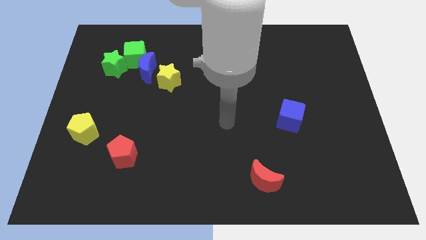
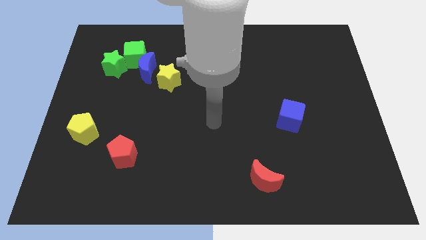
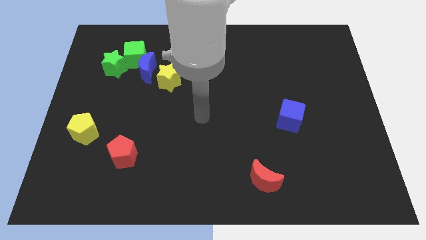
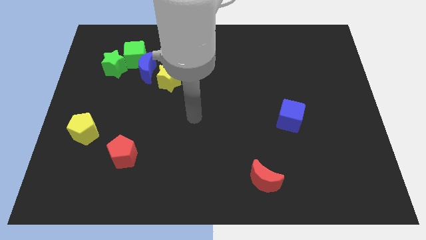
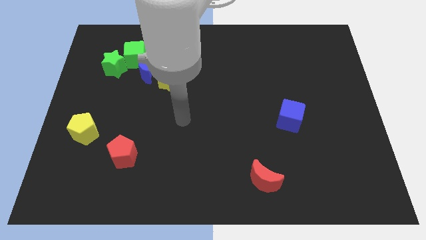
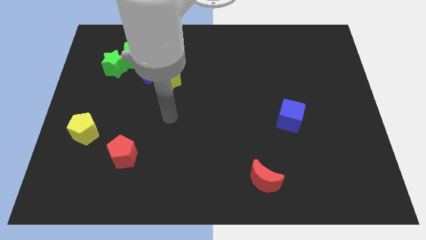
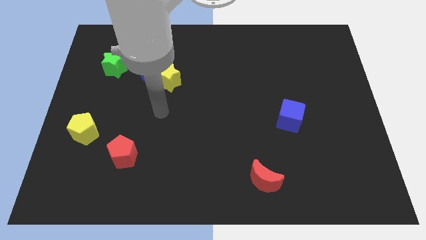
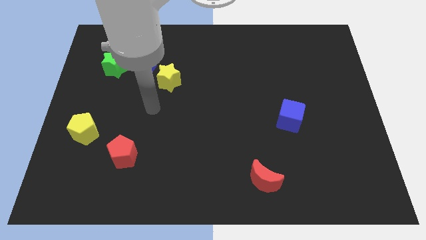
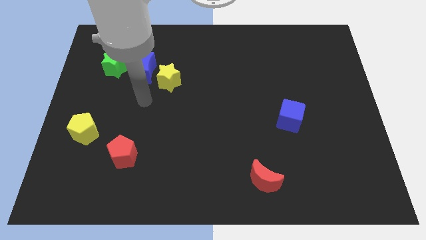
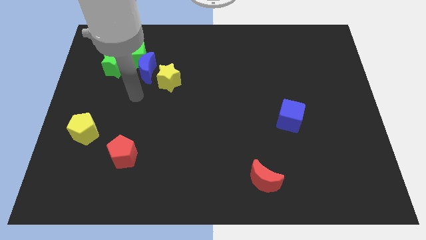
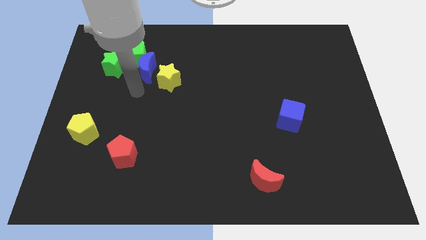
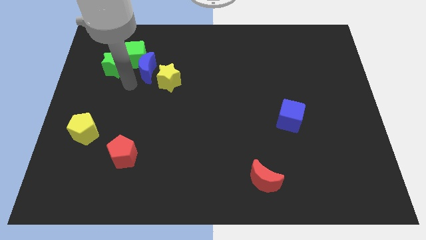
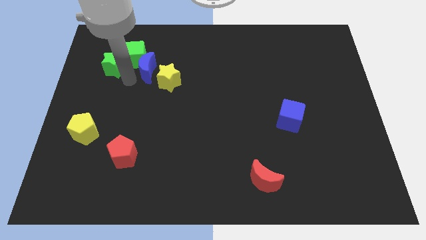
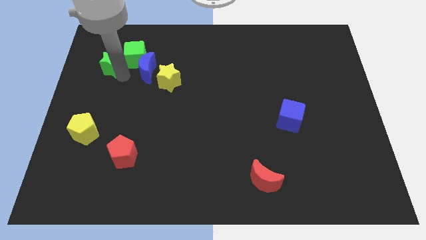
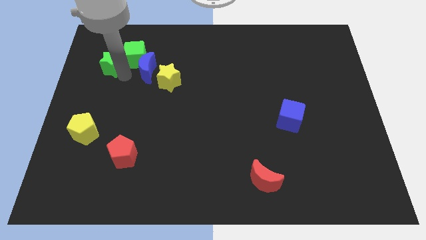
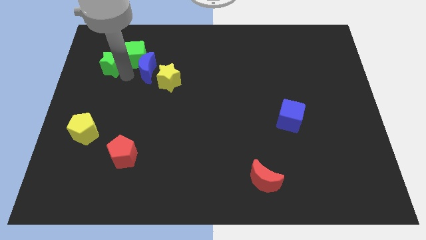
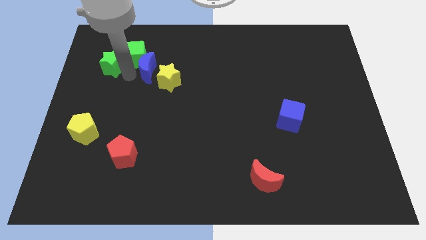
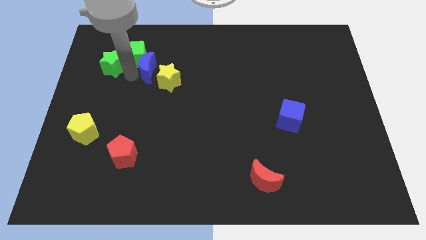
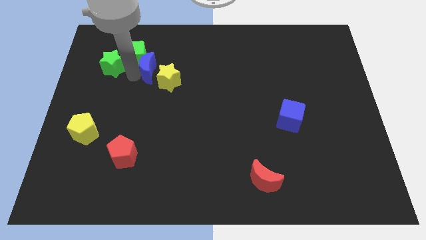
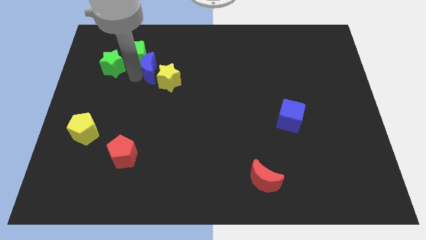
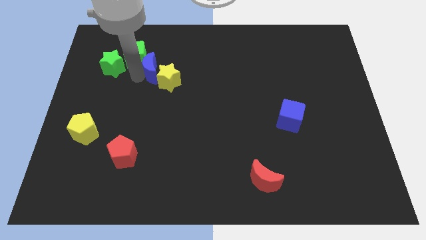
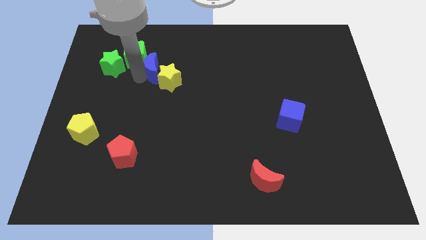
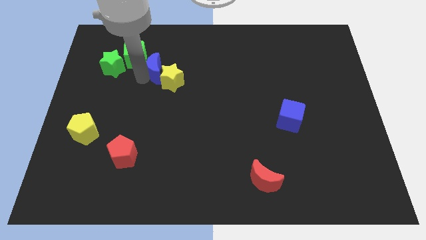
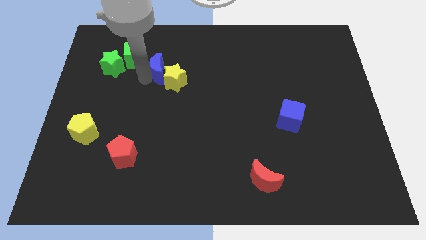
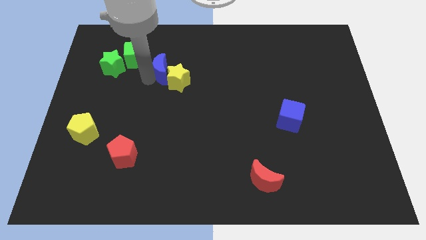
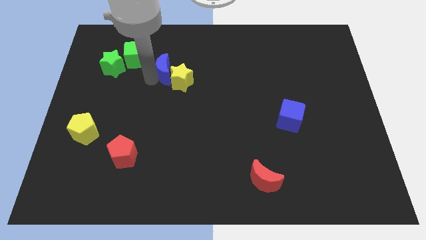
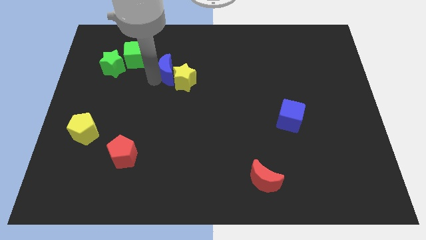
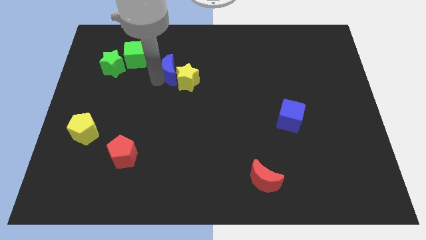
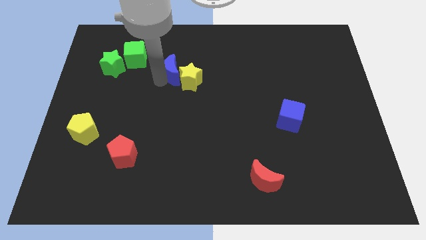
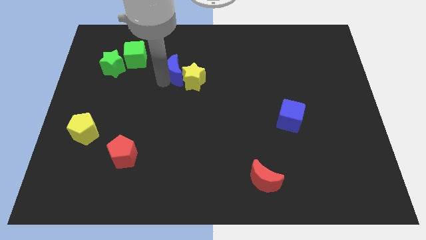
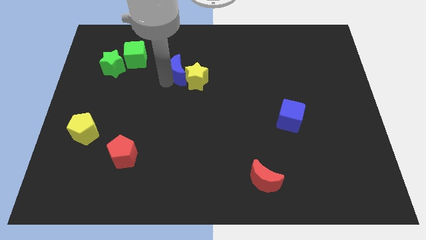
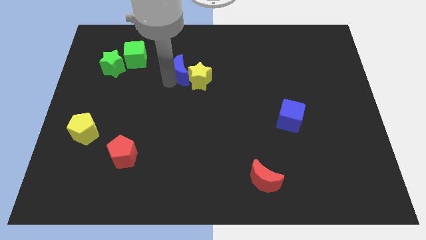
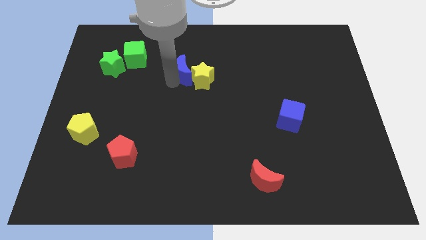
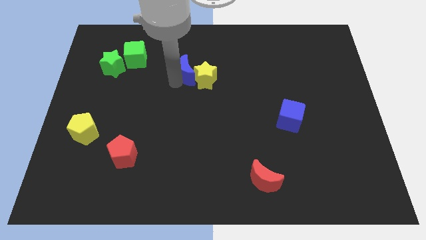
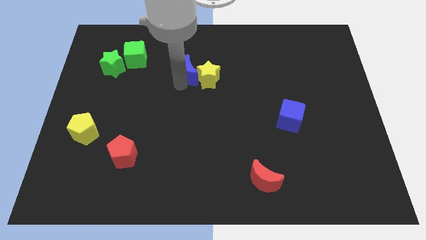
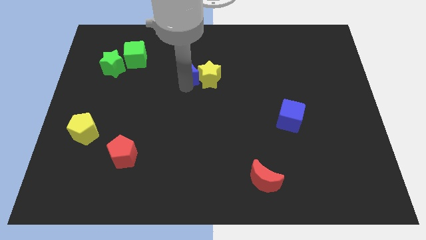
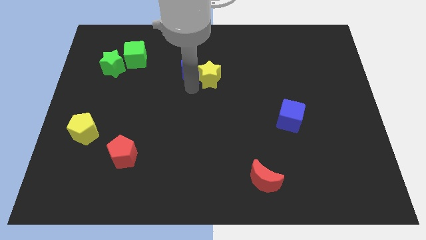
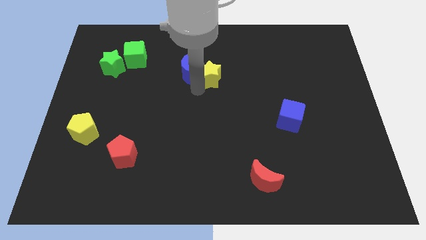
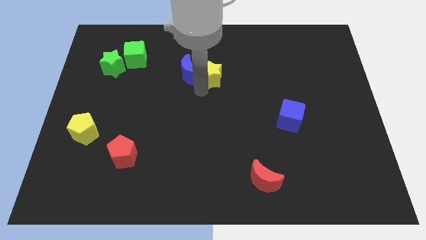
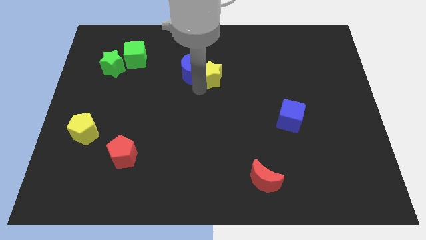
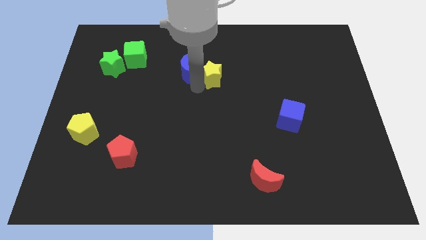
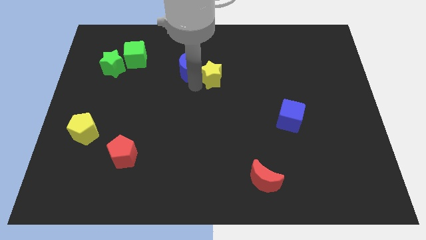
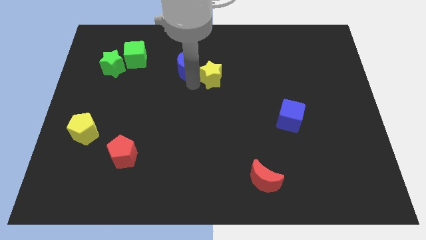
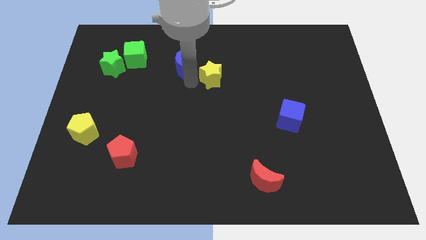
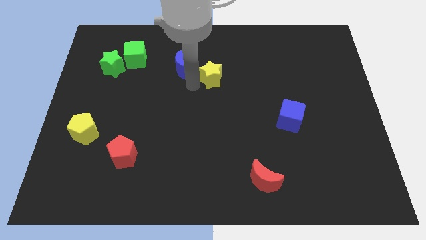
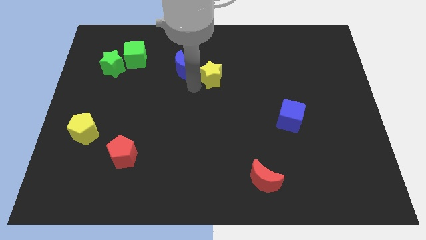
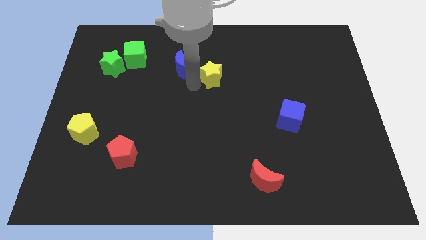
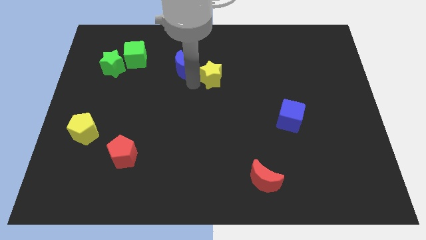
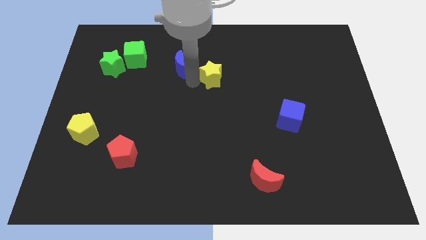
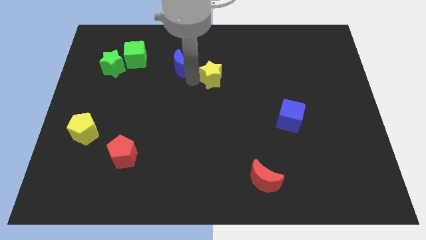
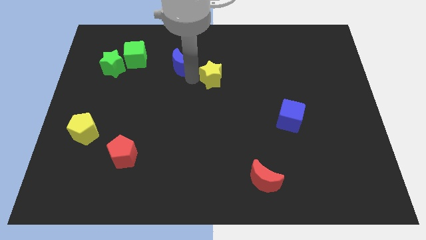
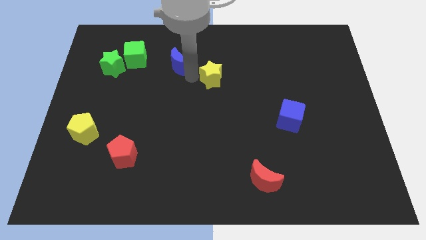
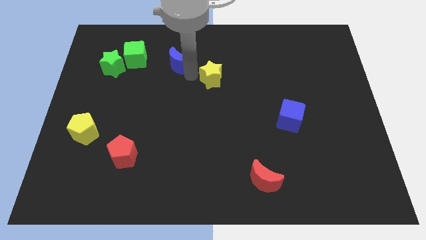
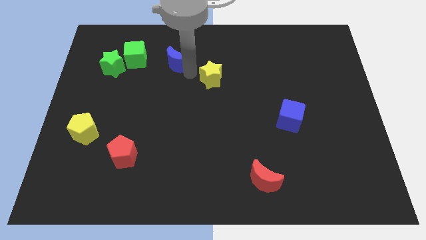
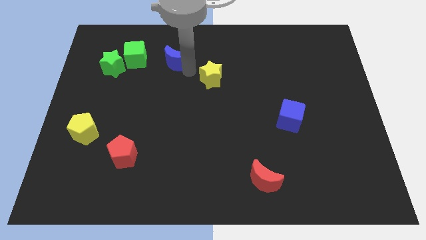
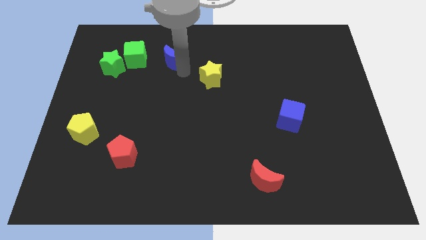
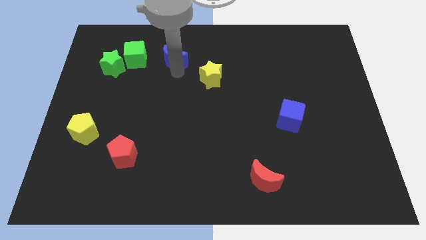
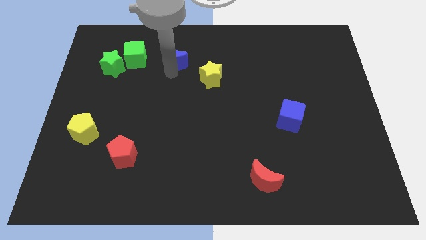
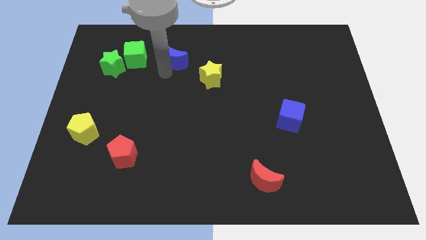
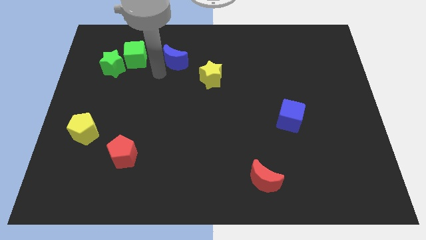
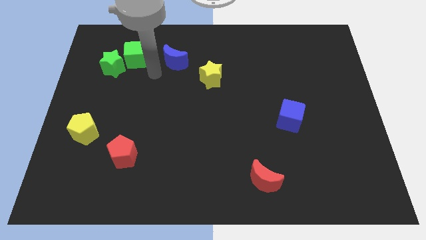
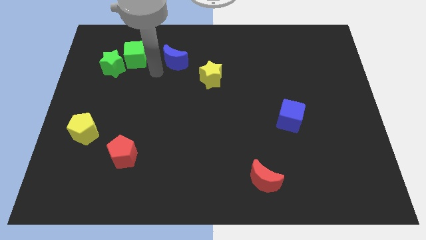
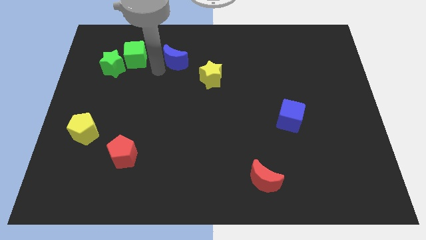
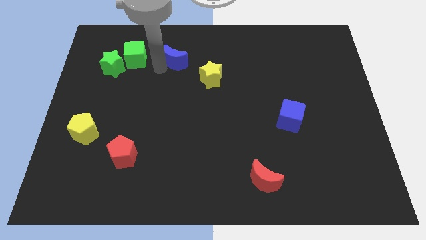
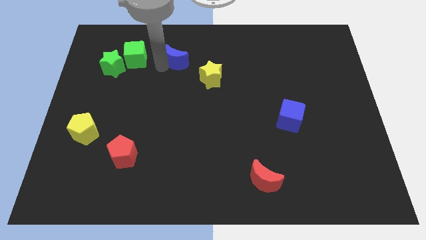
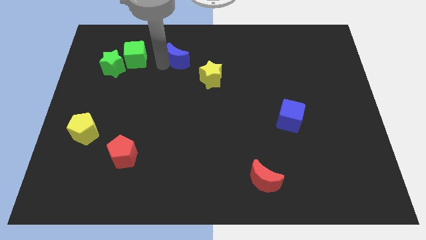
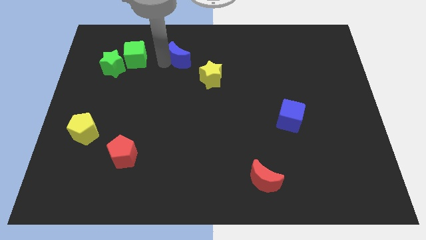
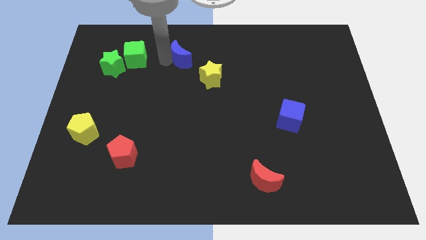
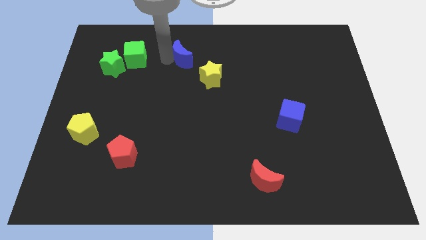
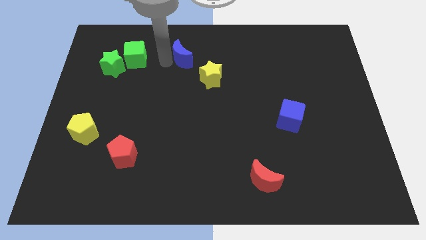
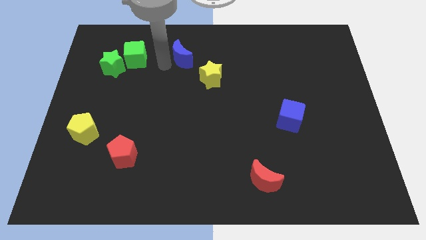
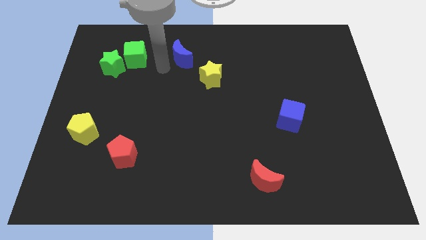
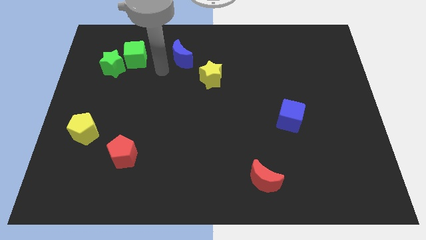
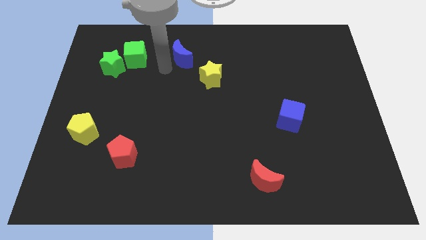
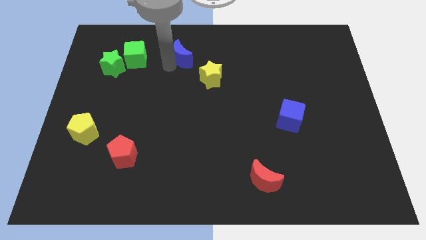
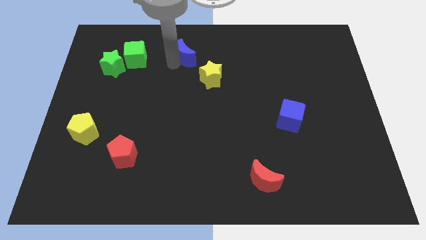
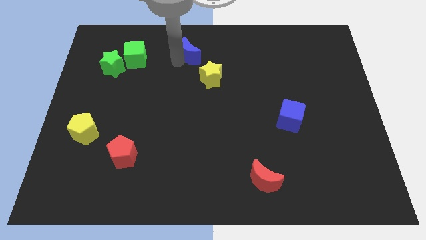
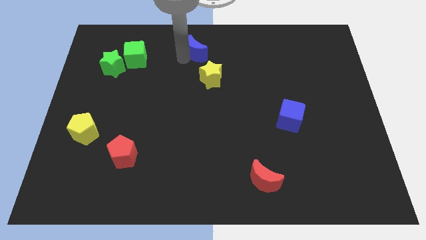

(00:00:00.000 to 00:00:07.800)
push the blue moon to the top side
